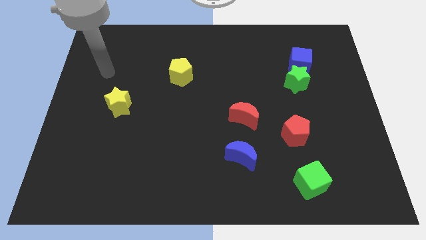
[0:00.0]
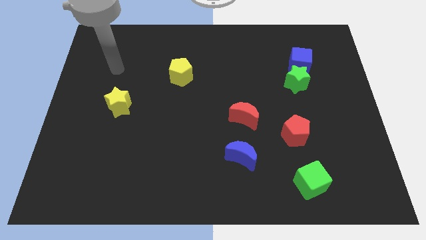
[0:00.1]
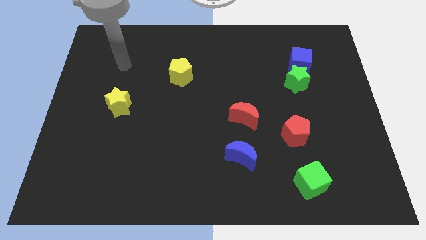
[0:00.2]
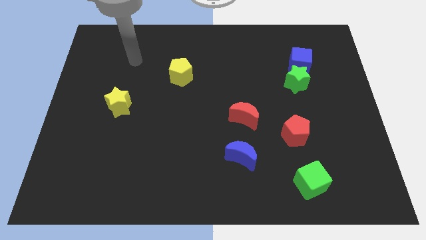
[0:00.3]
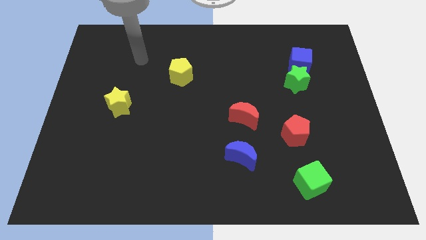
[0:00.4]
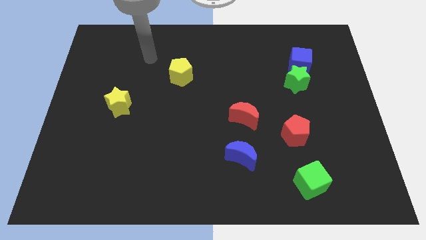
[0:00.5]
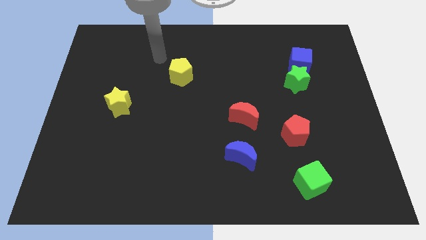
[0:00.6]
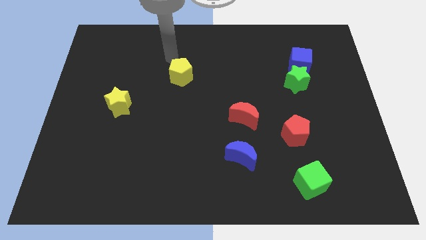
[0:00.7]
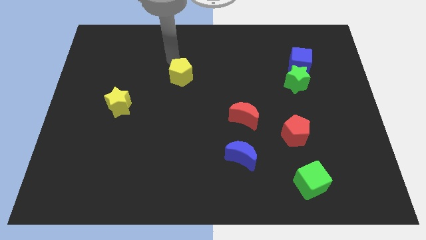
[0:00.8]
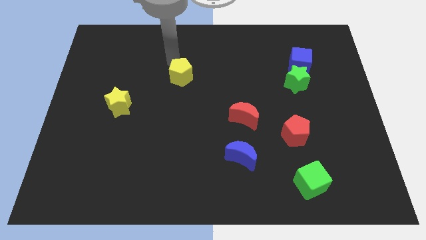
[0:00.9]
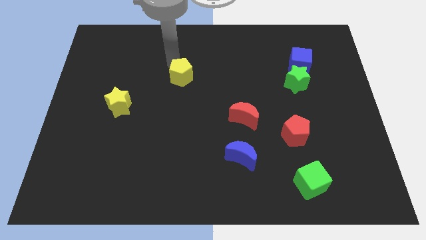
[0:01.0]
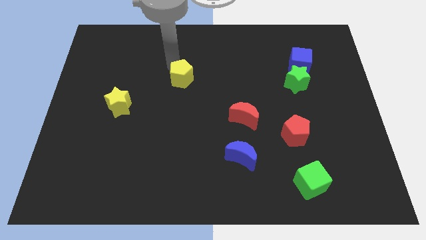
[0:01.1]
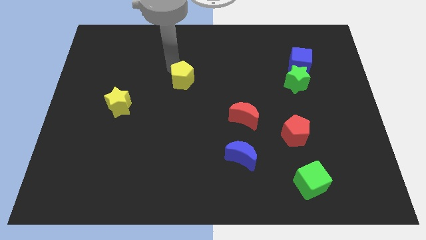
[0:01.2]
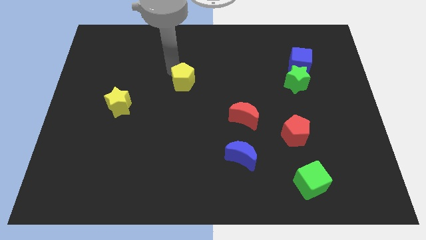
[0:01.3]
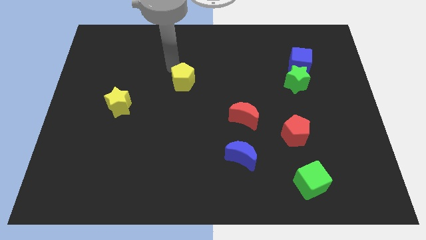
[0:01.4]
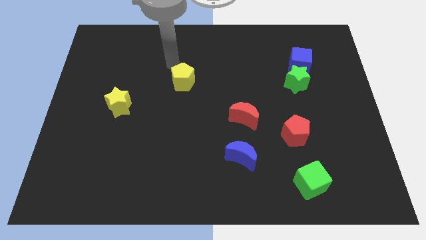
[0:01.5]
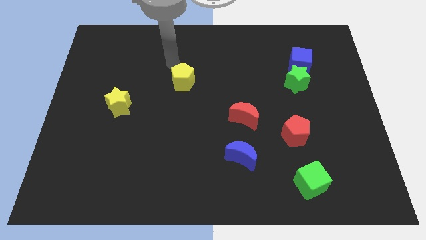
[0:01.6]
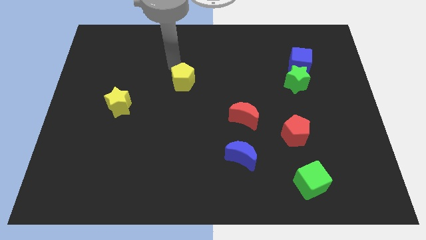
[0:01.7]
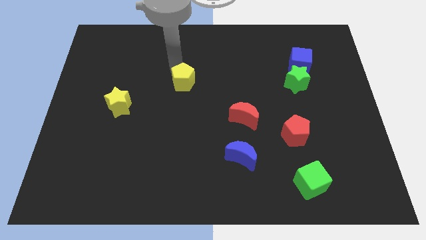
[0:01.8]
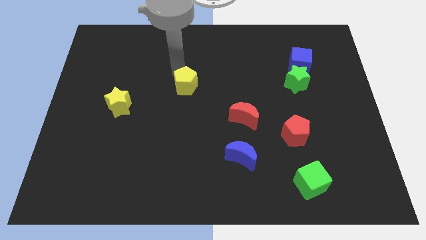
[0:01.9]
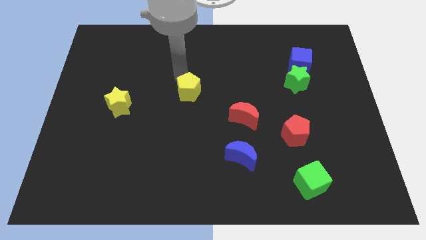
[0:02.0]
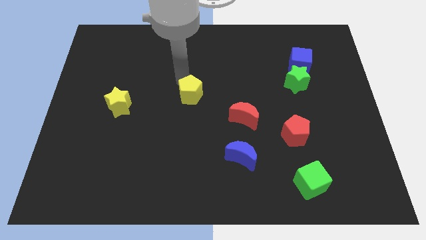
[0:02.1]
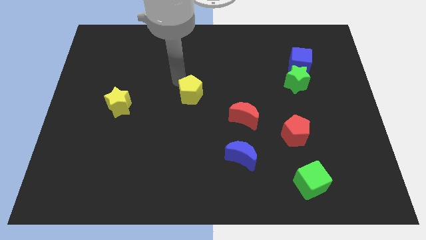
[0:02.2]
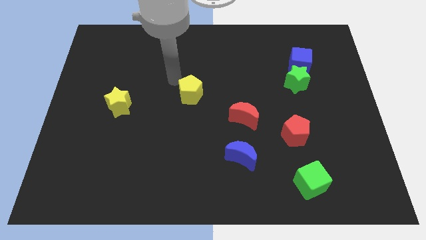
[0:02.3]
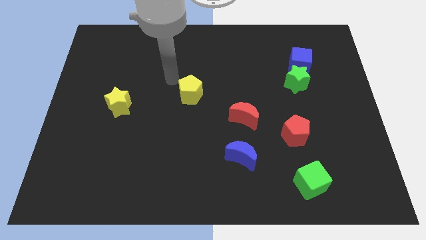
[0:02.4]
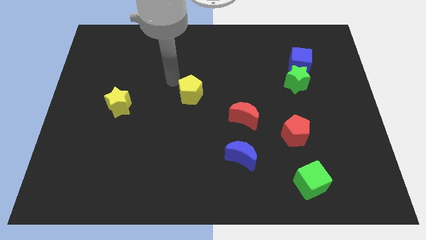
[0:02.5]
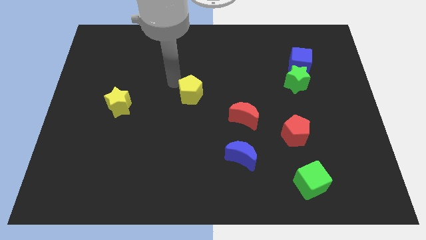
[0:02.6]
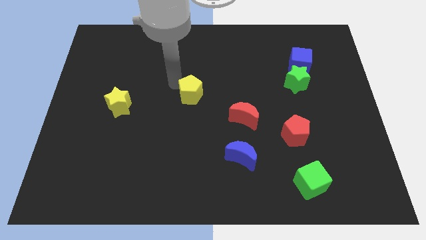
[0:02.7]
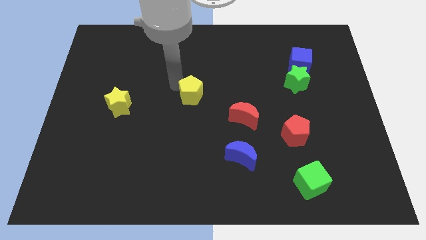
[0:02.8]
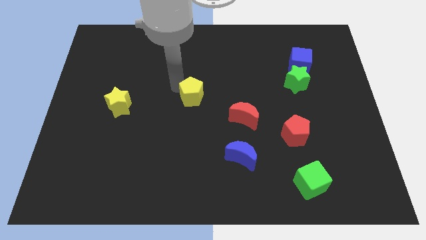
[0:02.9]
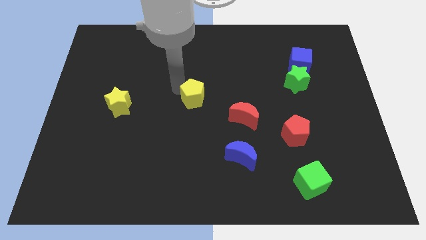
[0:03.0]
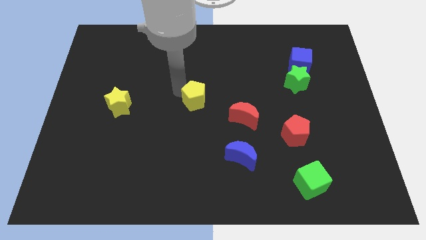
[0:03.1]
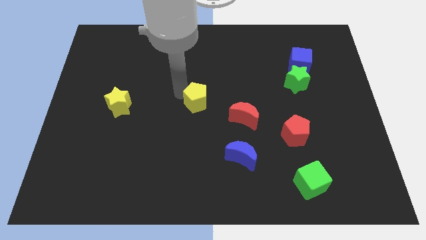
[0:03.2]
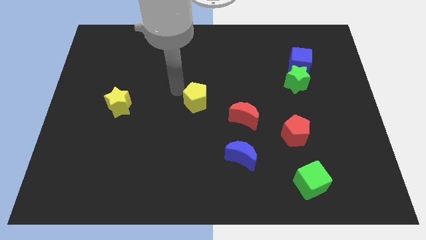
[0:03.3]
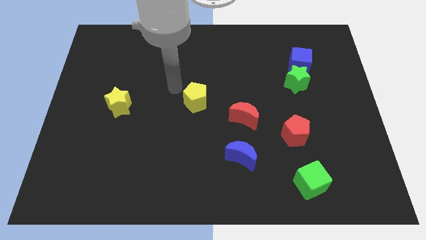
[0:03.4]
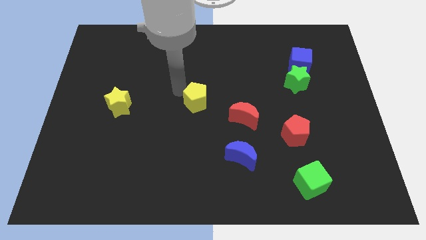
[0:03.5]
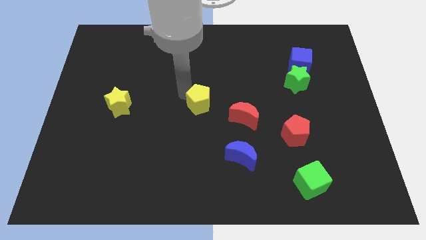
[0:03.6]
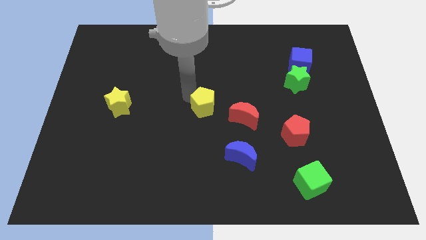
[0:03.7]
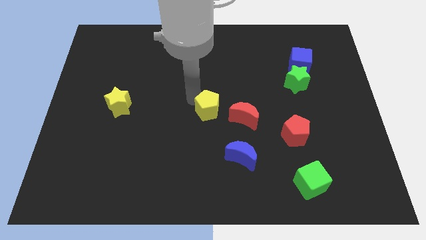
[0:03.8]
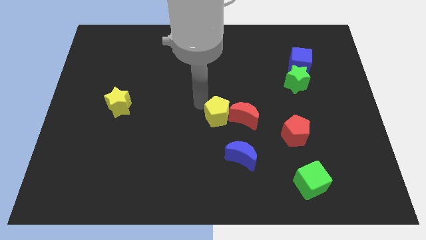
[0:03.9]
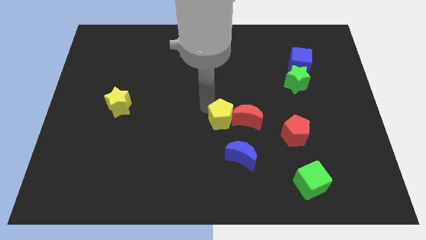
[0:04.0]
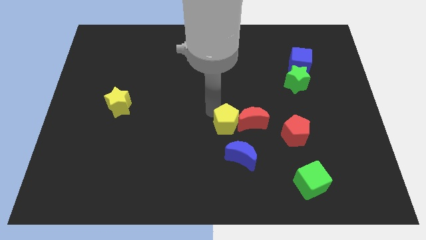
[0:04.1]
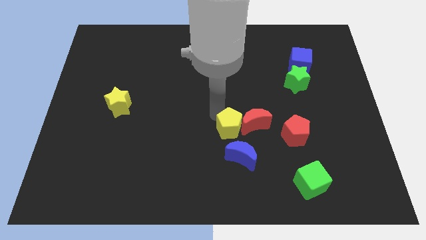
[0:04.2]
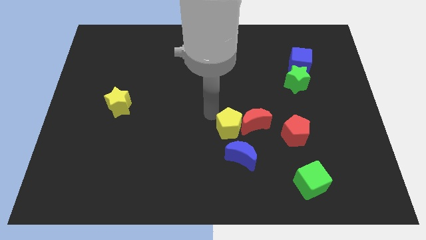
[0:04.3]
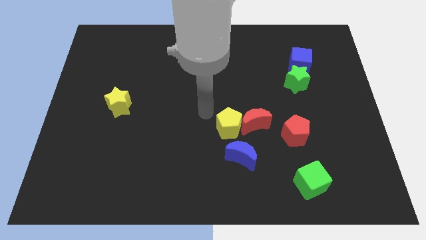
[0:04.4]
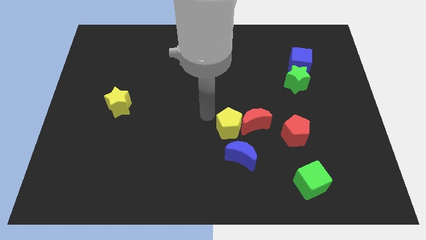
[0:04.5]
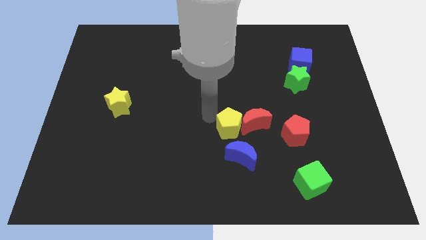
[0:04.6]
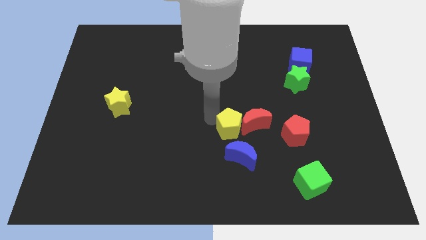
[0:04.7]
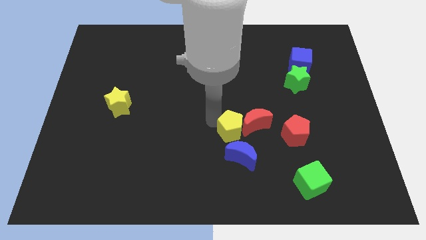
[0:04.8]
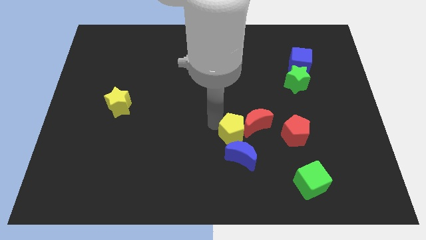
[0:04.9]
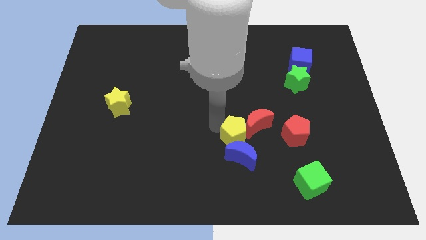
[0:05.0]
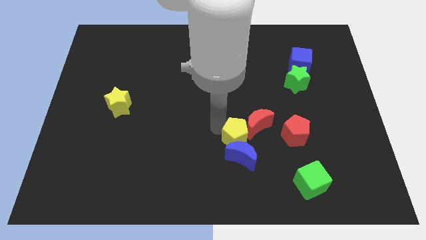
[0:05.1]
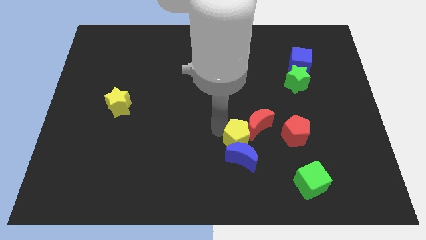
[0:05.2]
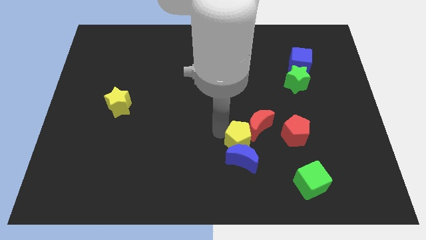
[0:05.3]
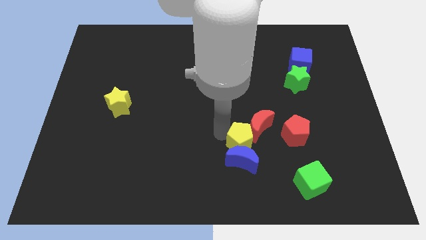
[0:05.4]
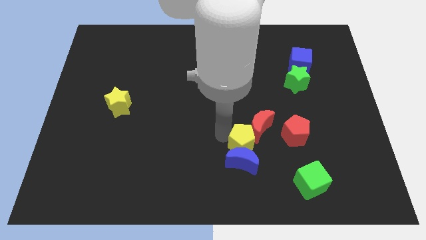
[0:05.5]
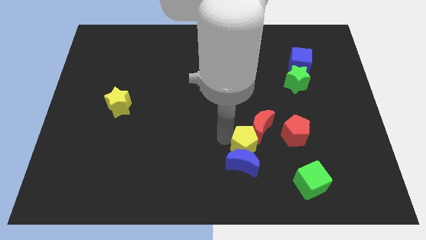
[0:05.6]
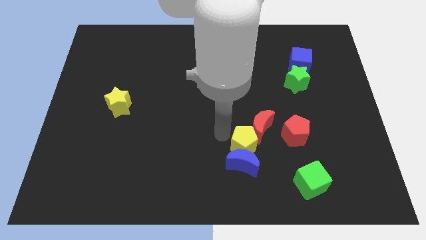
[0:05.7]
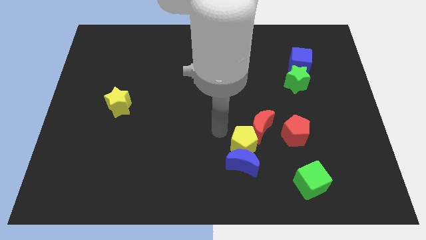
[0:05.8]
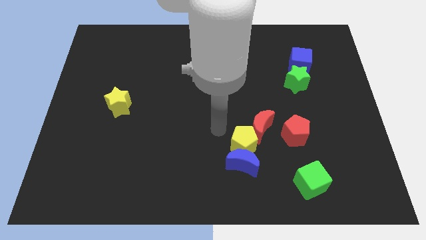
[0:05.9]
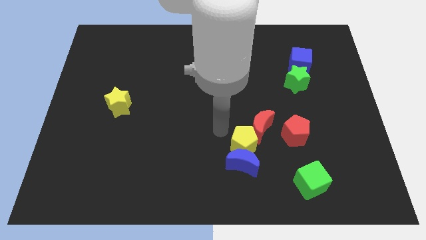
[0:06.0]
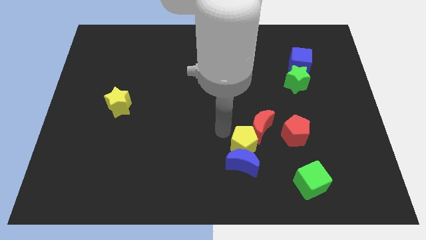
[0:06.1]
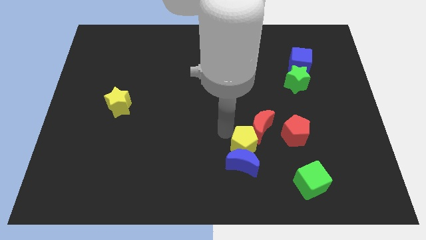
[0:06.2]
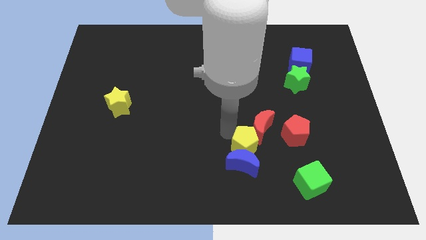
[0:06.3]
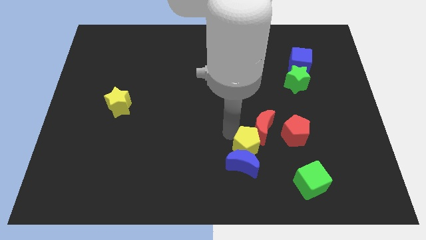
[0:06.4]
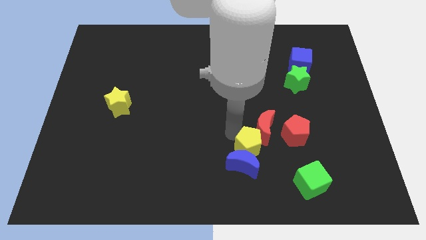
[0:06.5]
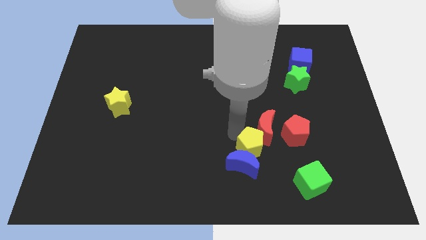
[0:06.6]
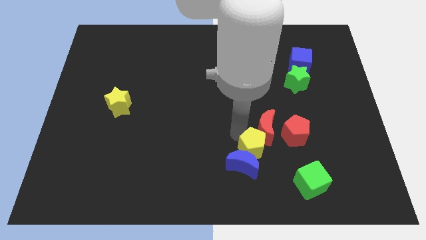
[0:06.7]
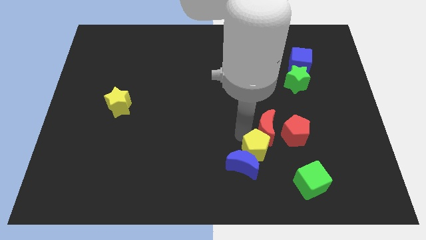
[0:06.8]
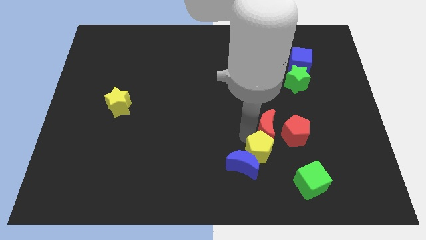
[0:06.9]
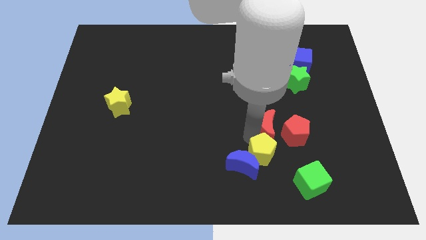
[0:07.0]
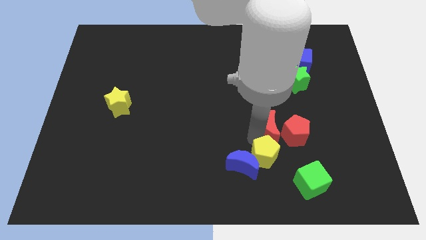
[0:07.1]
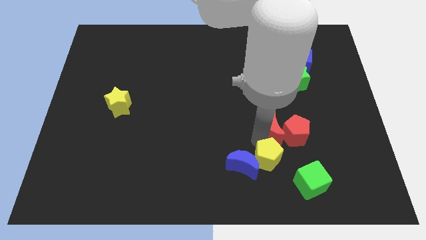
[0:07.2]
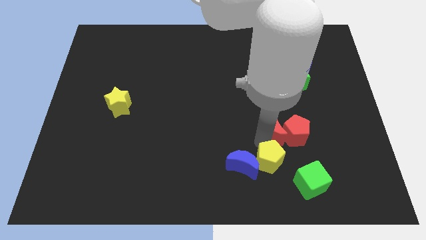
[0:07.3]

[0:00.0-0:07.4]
push the yellow pentagon to the bottom right side of the blue moon
